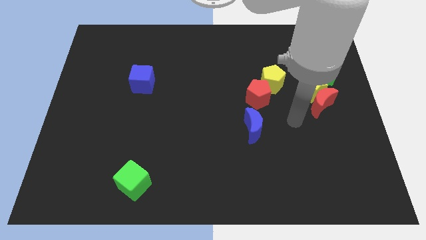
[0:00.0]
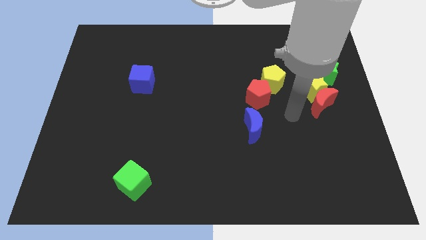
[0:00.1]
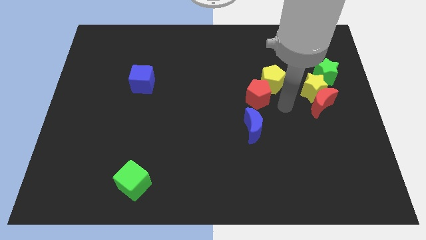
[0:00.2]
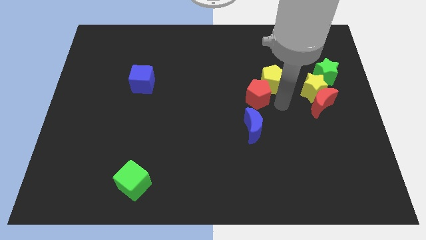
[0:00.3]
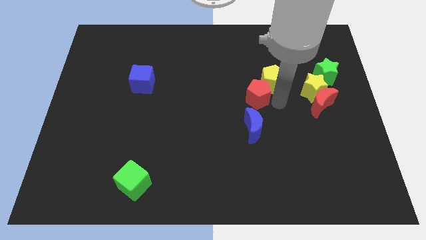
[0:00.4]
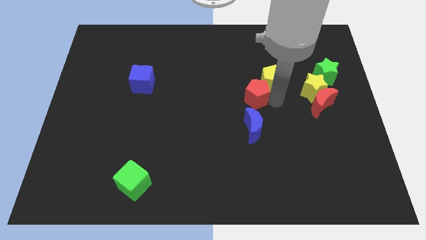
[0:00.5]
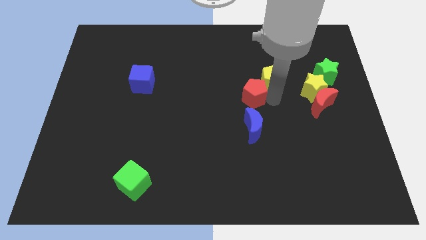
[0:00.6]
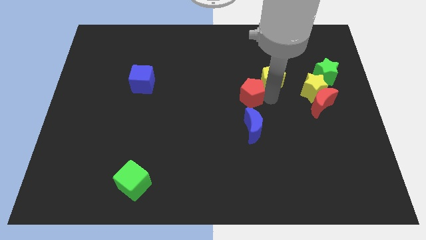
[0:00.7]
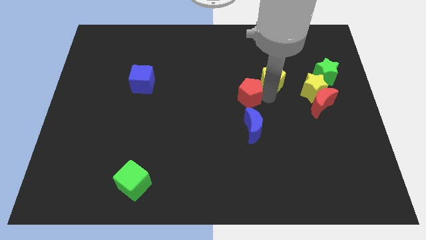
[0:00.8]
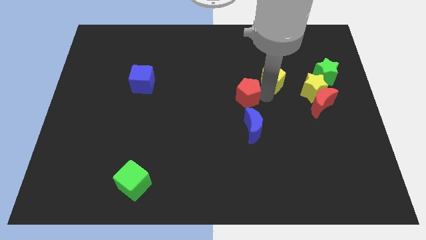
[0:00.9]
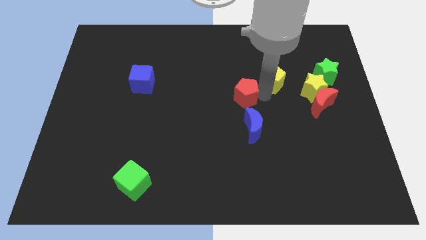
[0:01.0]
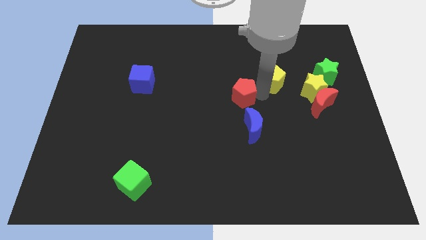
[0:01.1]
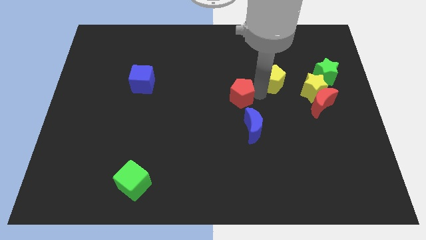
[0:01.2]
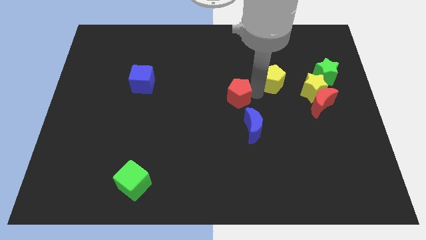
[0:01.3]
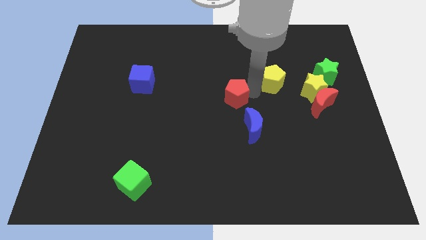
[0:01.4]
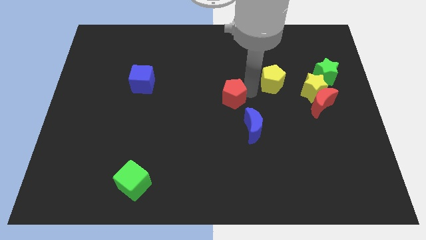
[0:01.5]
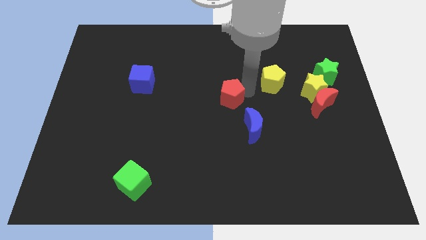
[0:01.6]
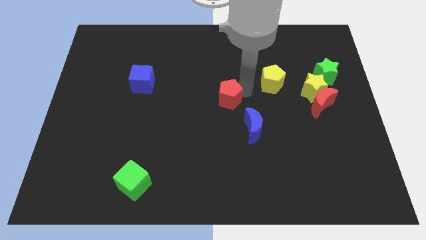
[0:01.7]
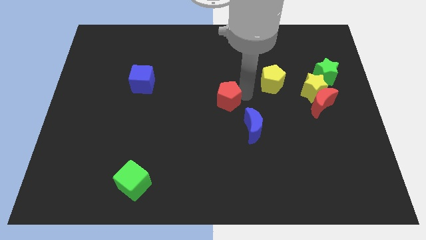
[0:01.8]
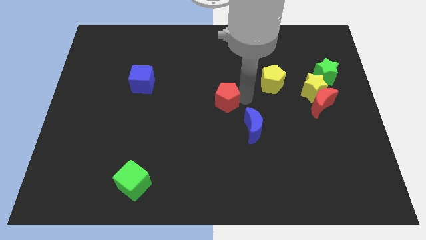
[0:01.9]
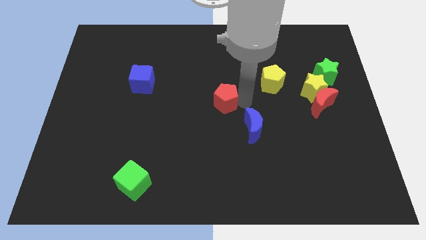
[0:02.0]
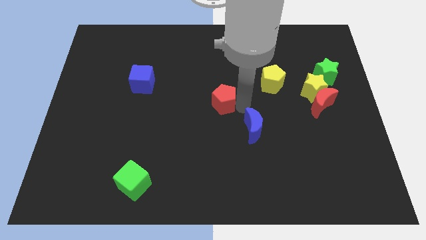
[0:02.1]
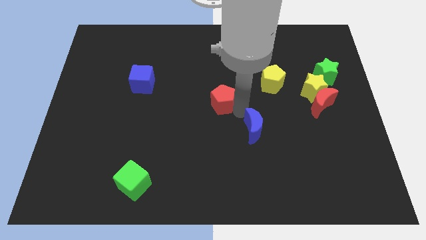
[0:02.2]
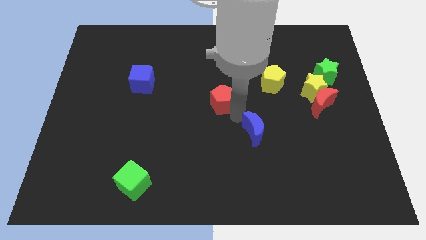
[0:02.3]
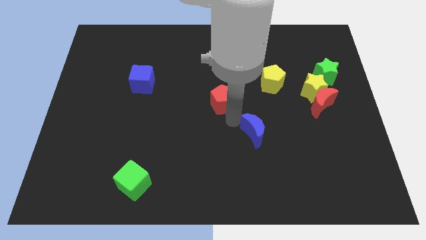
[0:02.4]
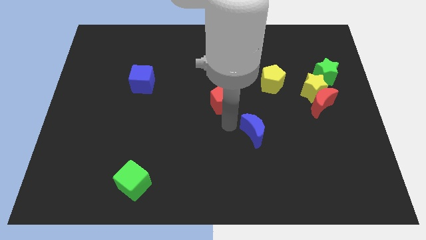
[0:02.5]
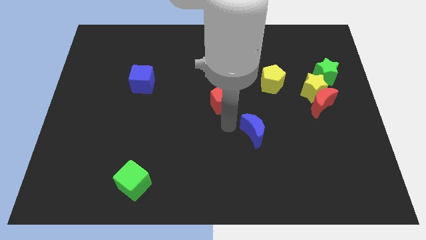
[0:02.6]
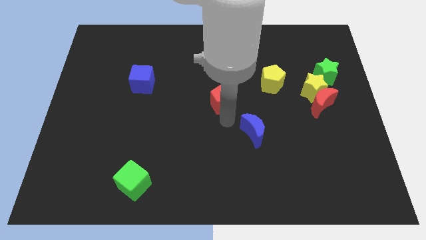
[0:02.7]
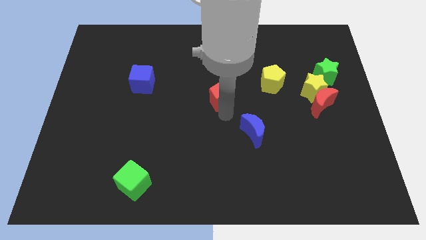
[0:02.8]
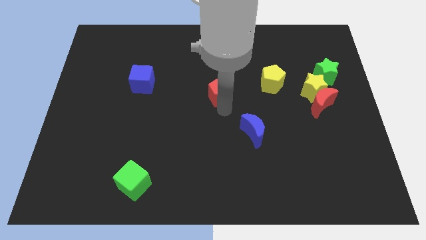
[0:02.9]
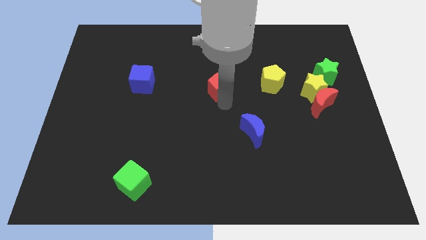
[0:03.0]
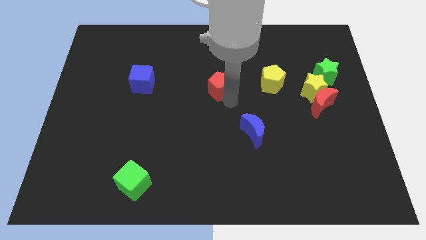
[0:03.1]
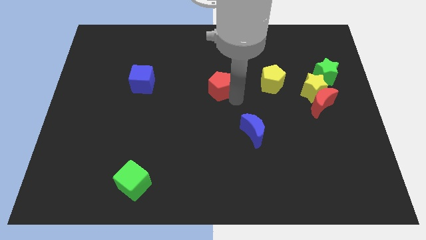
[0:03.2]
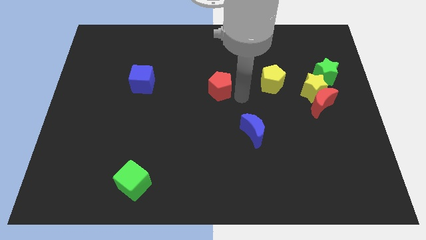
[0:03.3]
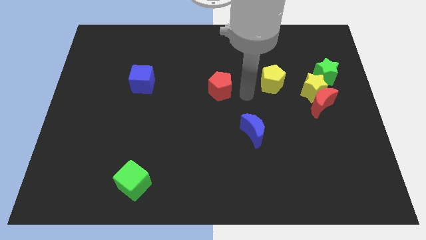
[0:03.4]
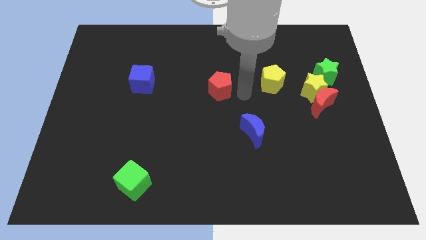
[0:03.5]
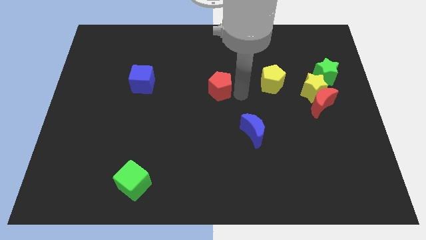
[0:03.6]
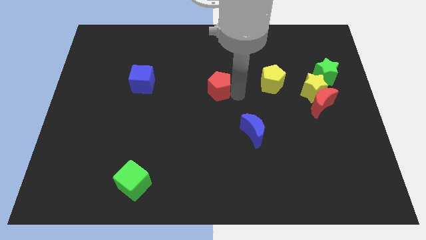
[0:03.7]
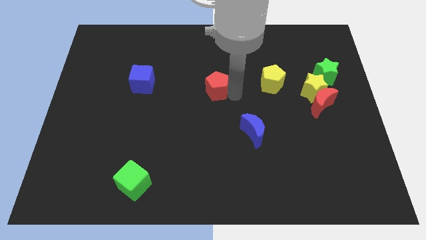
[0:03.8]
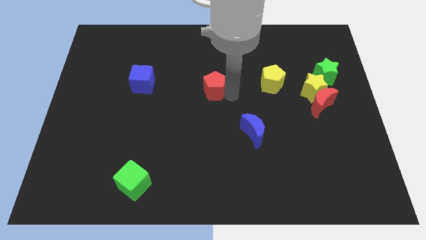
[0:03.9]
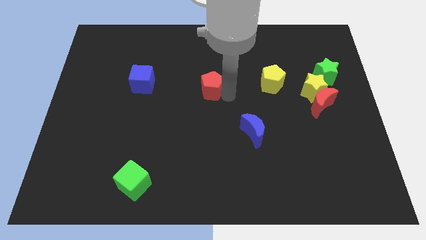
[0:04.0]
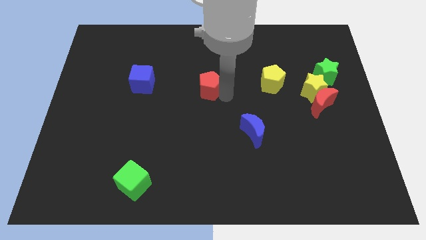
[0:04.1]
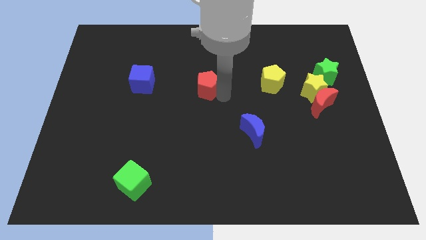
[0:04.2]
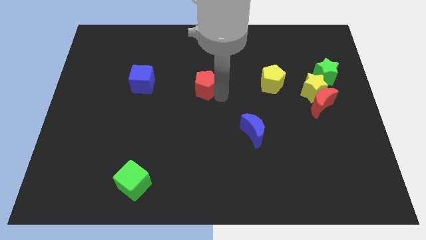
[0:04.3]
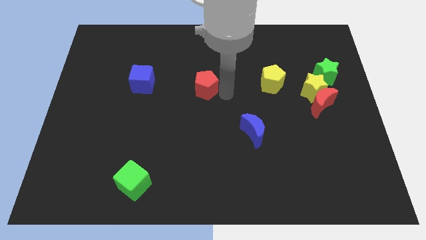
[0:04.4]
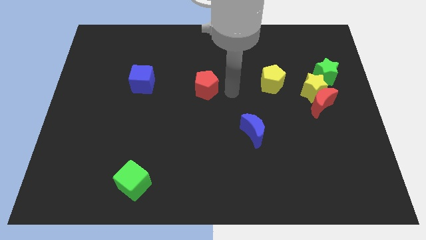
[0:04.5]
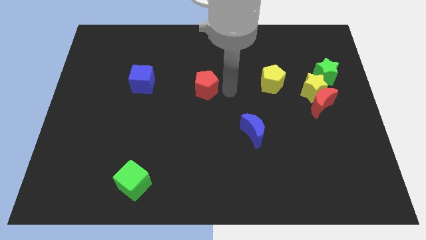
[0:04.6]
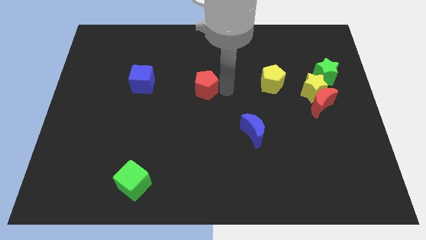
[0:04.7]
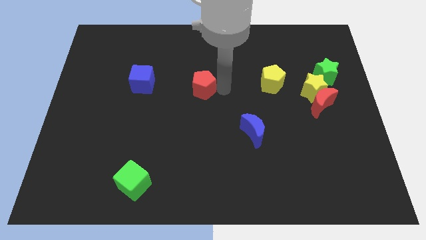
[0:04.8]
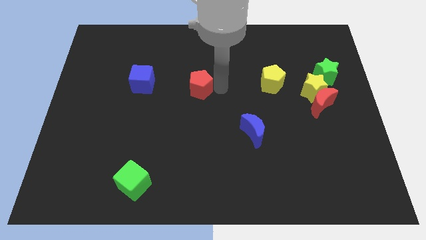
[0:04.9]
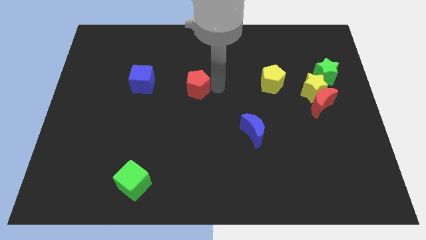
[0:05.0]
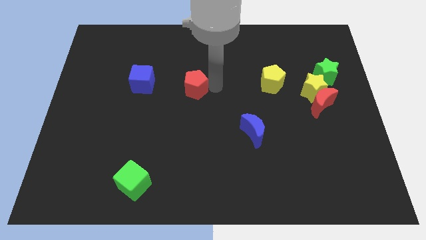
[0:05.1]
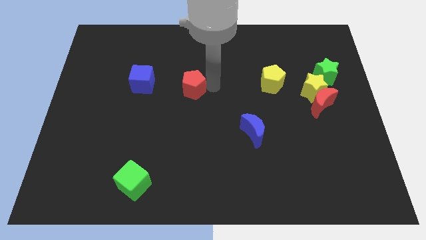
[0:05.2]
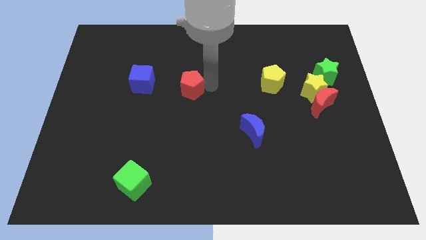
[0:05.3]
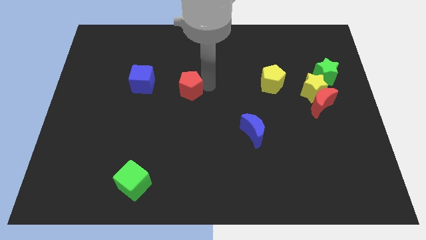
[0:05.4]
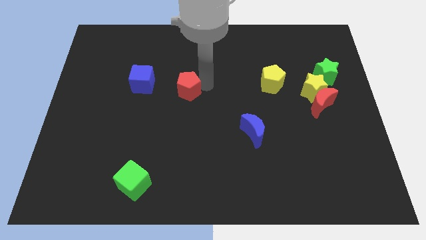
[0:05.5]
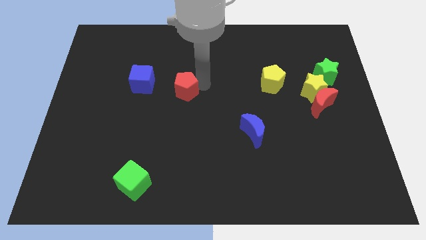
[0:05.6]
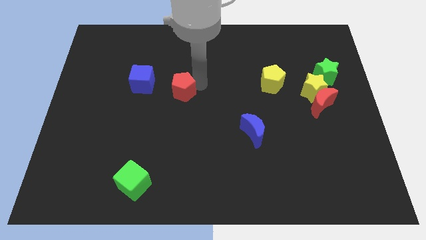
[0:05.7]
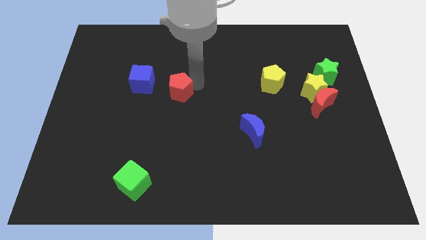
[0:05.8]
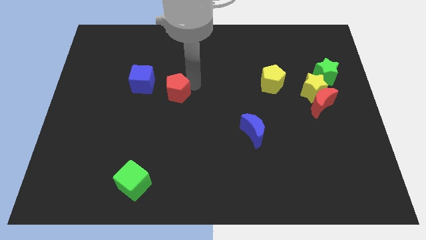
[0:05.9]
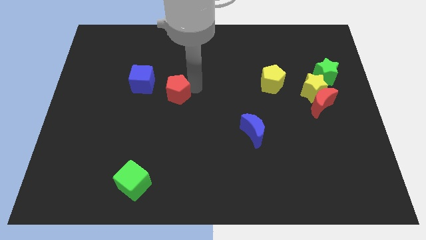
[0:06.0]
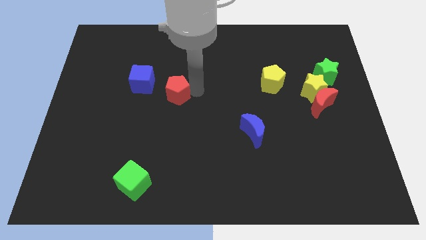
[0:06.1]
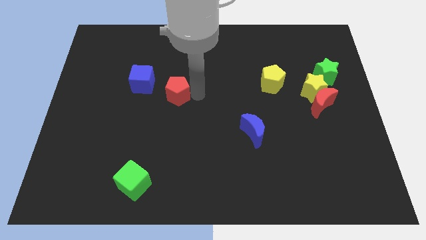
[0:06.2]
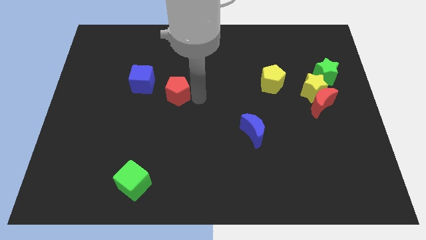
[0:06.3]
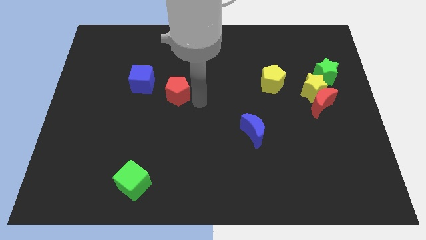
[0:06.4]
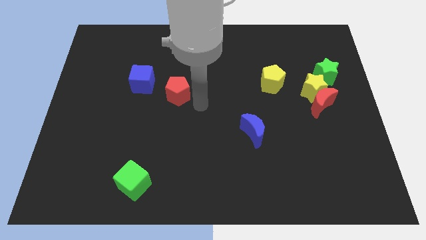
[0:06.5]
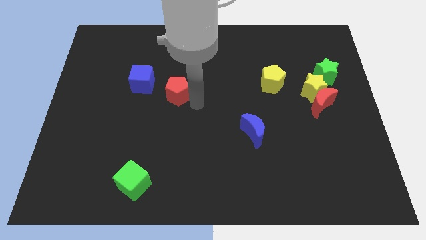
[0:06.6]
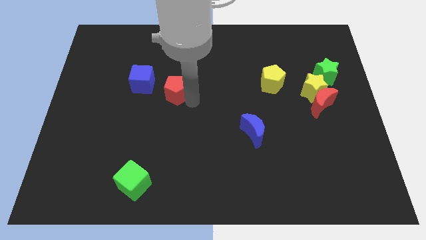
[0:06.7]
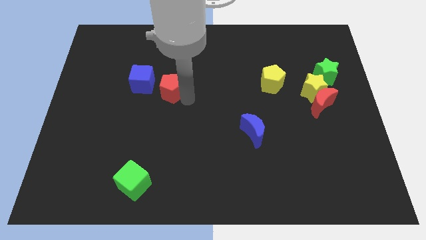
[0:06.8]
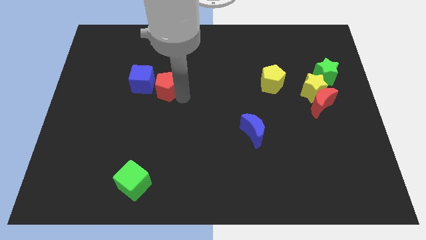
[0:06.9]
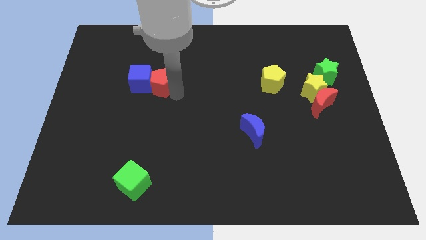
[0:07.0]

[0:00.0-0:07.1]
push the red pentagon to the blue cube
